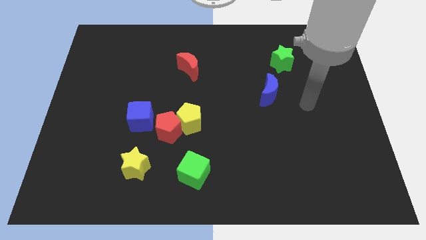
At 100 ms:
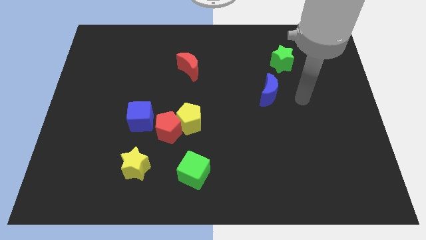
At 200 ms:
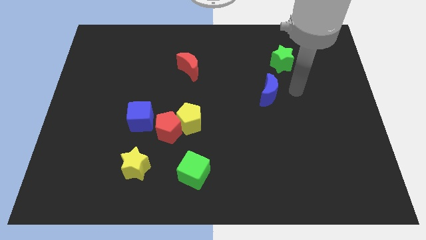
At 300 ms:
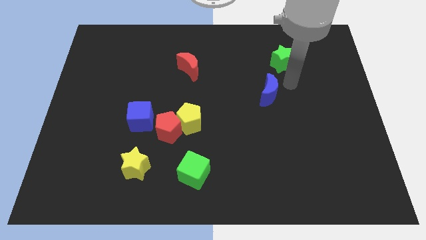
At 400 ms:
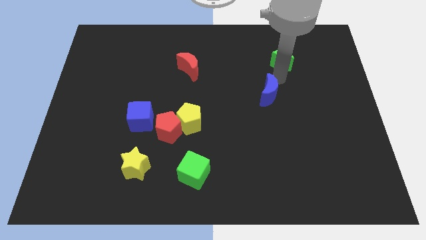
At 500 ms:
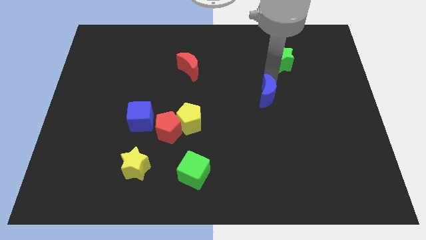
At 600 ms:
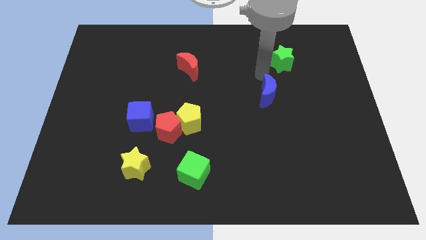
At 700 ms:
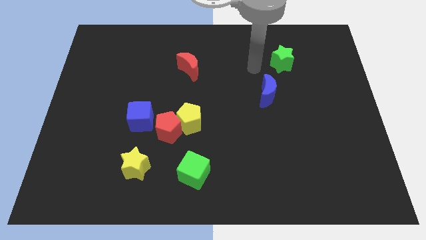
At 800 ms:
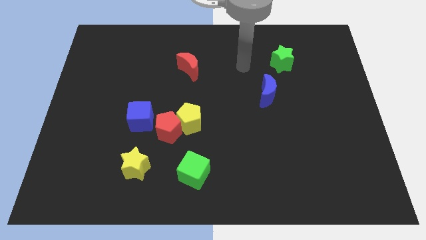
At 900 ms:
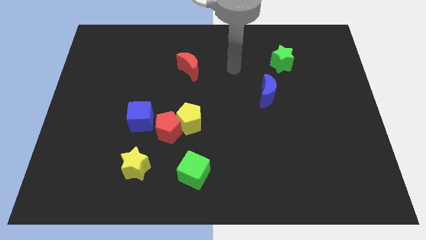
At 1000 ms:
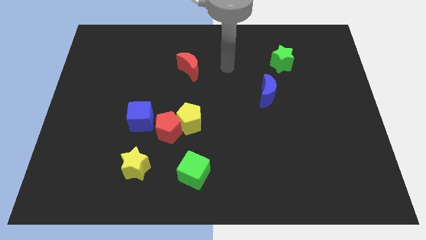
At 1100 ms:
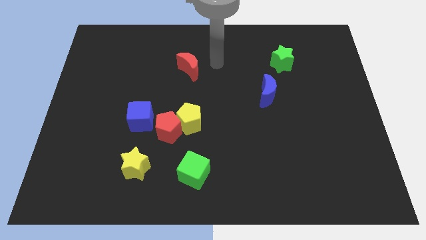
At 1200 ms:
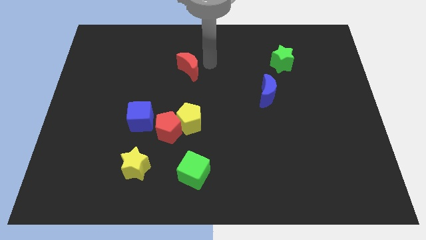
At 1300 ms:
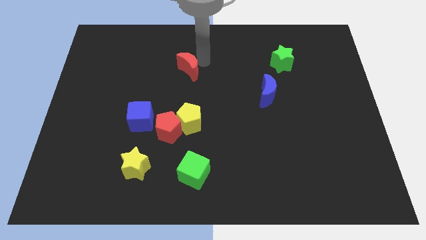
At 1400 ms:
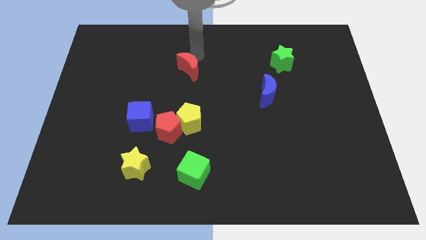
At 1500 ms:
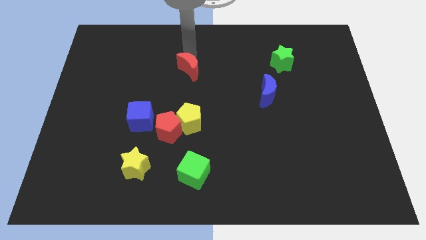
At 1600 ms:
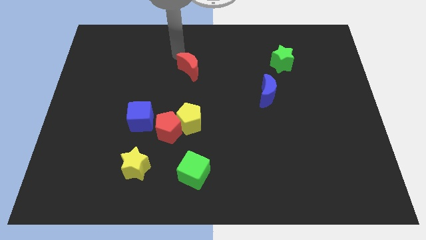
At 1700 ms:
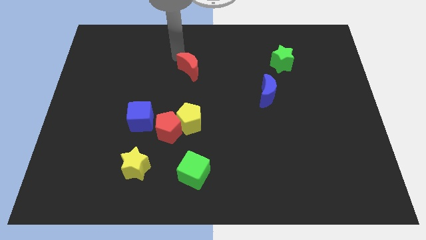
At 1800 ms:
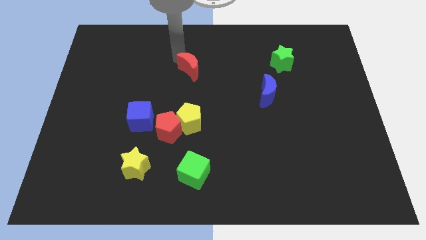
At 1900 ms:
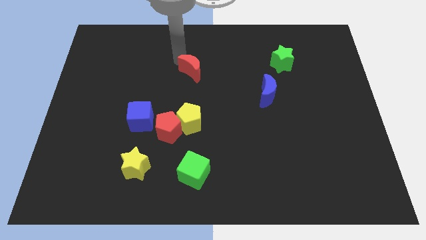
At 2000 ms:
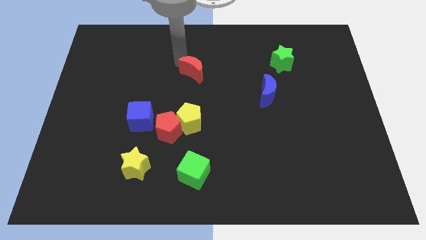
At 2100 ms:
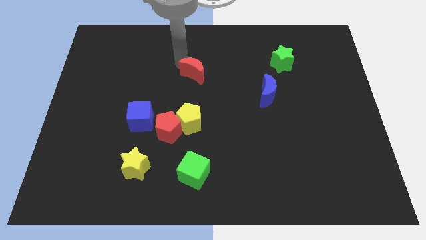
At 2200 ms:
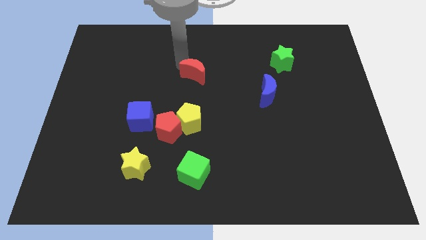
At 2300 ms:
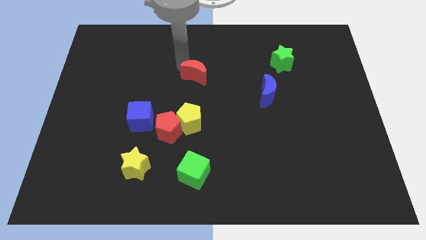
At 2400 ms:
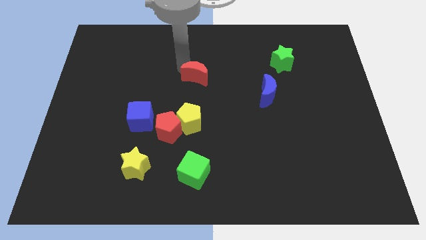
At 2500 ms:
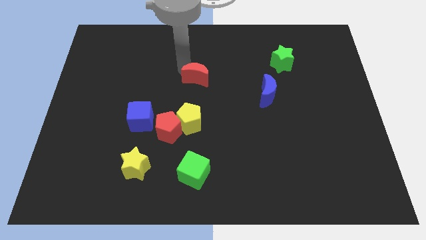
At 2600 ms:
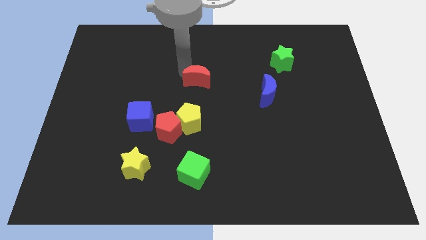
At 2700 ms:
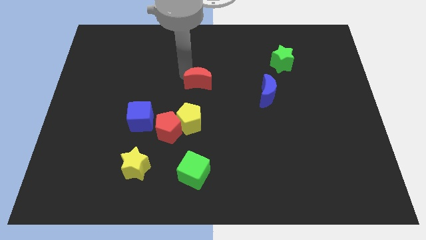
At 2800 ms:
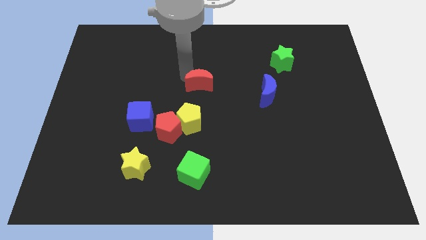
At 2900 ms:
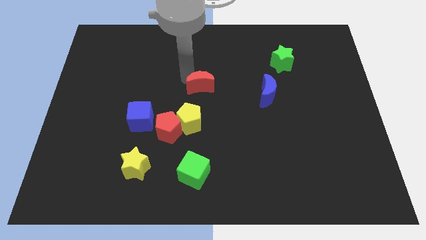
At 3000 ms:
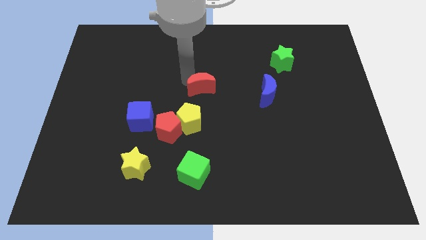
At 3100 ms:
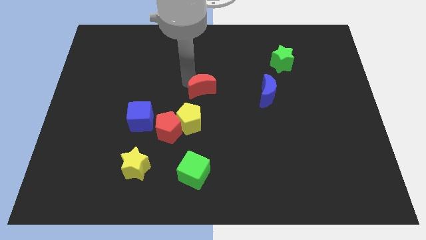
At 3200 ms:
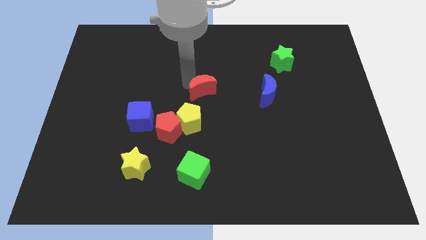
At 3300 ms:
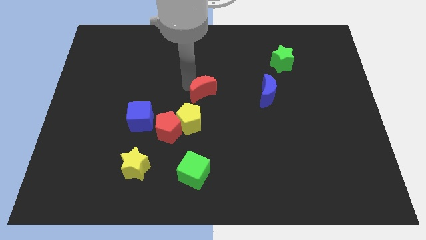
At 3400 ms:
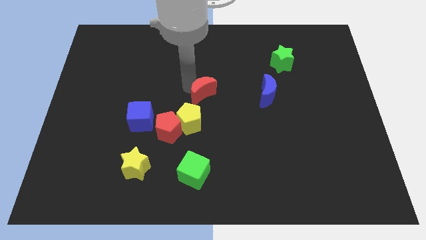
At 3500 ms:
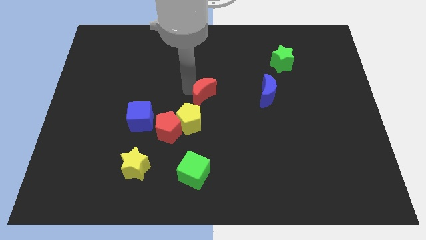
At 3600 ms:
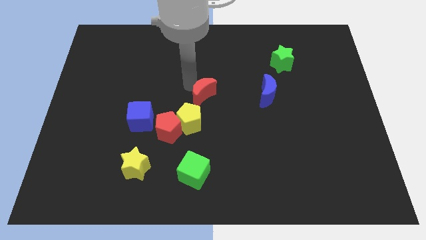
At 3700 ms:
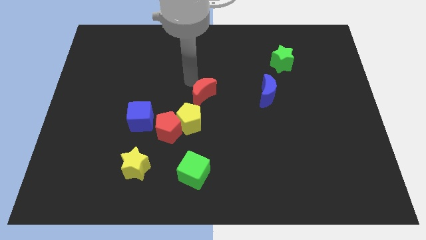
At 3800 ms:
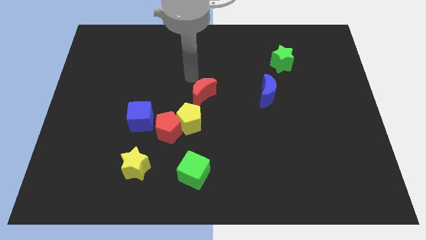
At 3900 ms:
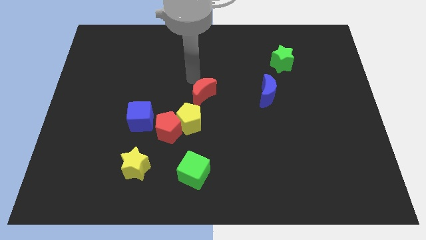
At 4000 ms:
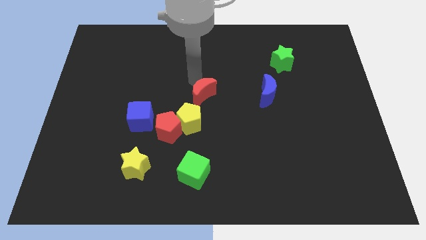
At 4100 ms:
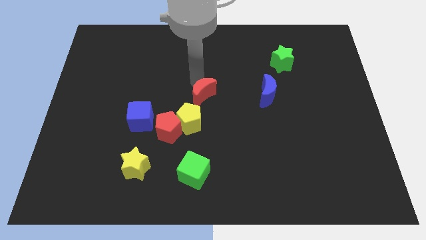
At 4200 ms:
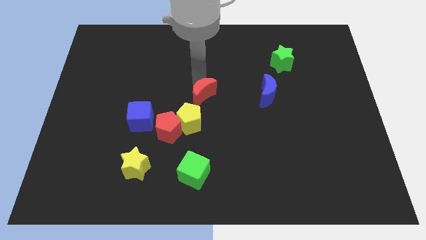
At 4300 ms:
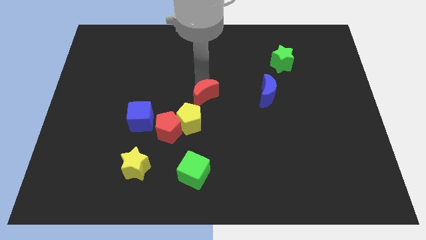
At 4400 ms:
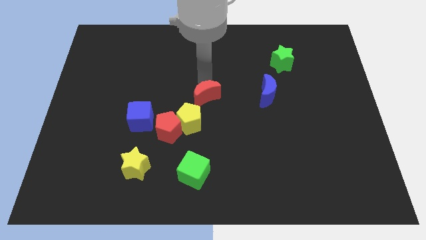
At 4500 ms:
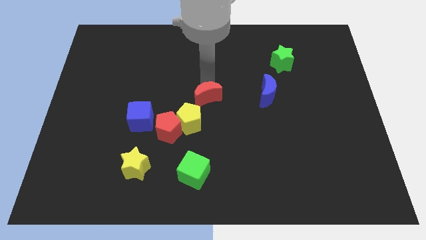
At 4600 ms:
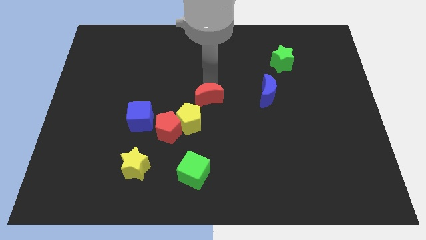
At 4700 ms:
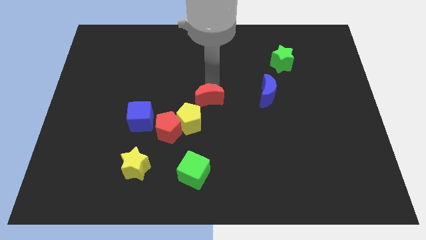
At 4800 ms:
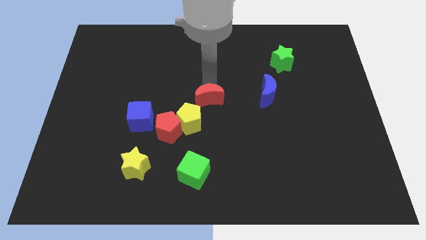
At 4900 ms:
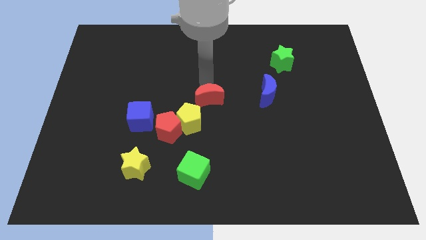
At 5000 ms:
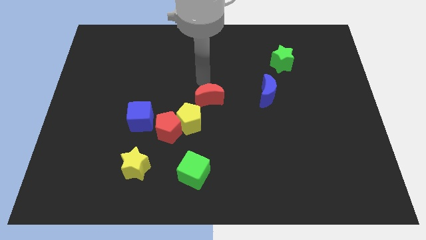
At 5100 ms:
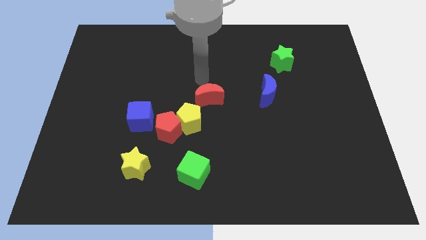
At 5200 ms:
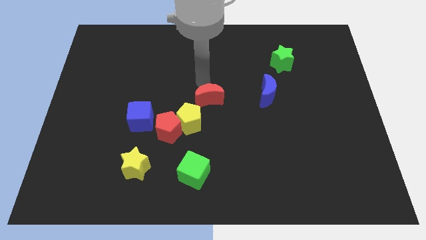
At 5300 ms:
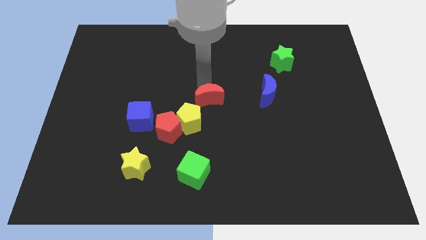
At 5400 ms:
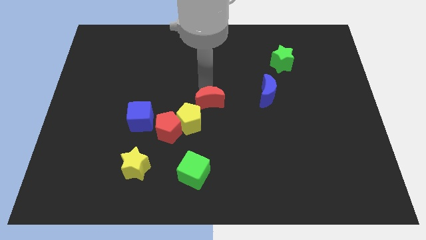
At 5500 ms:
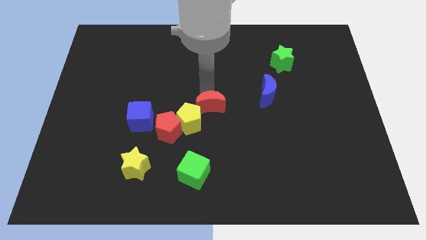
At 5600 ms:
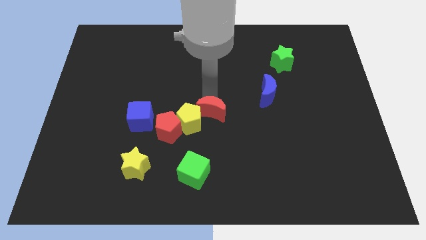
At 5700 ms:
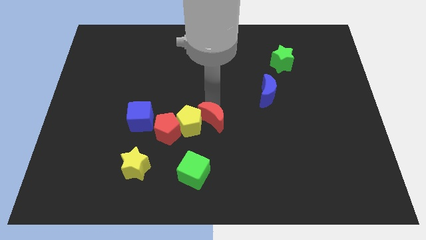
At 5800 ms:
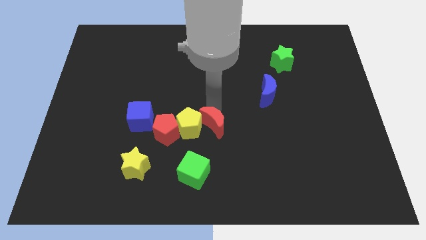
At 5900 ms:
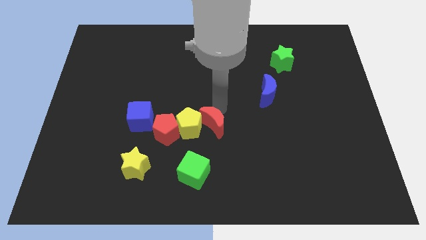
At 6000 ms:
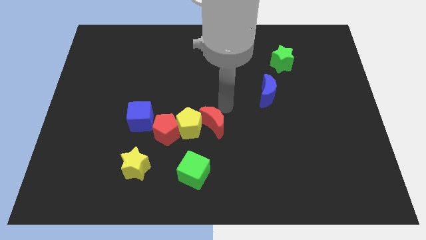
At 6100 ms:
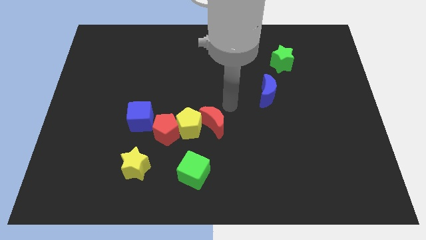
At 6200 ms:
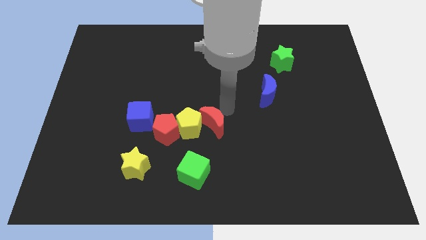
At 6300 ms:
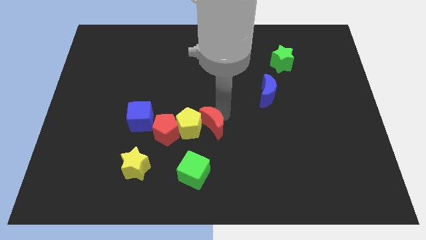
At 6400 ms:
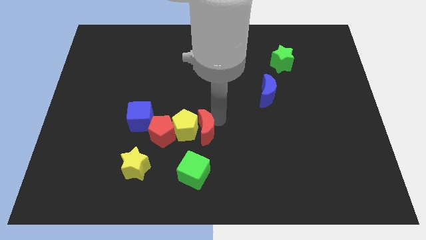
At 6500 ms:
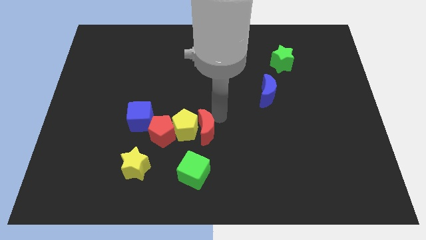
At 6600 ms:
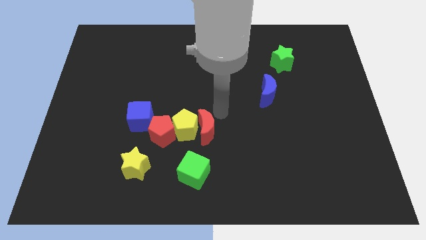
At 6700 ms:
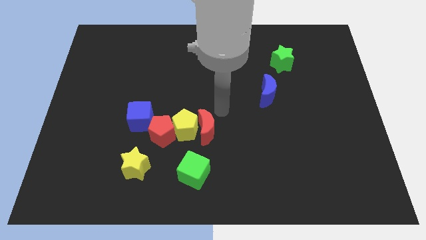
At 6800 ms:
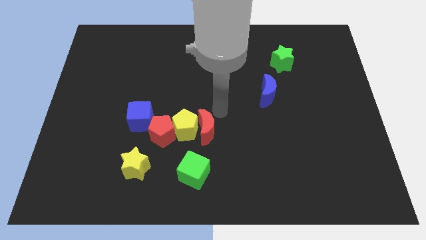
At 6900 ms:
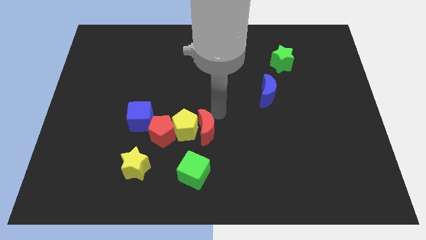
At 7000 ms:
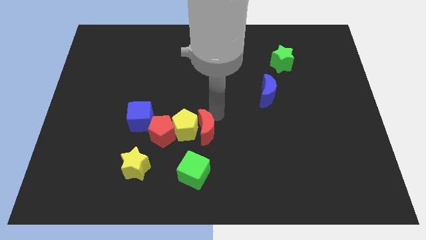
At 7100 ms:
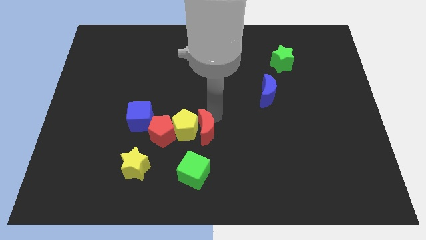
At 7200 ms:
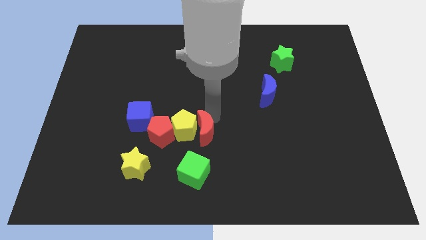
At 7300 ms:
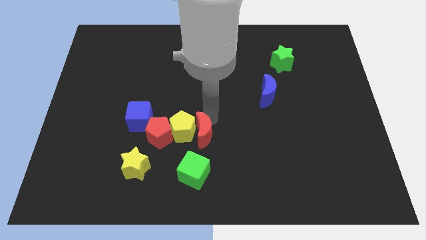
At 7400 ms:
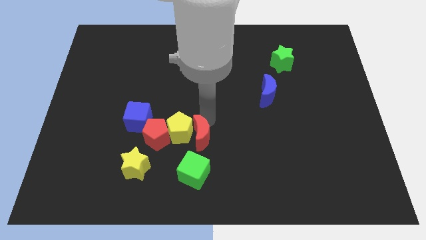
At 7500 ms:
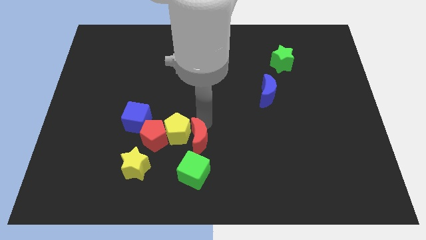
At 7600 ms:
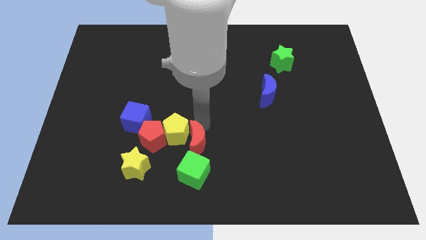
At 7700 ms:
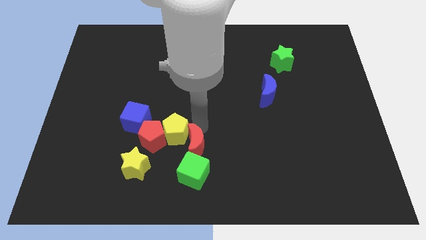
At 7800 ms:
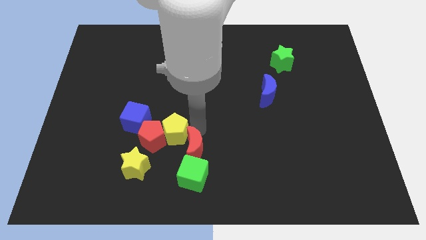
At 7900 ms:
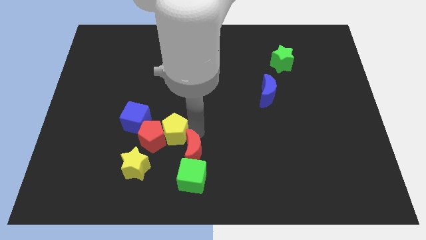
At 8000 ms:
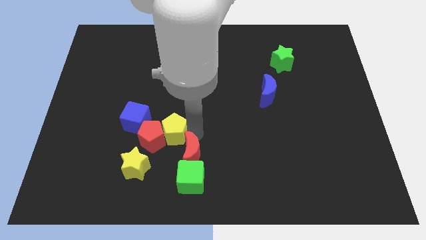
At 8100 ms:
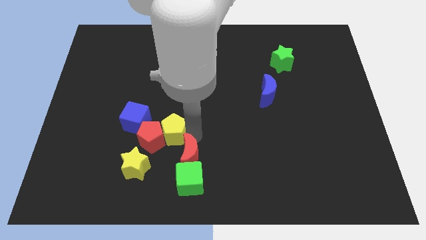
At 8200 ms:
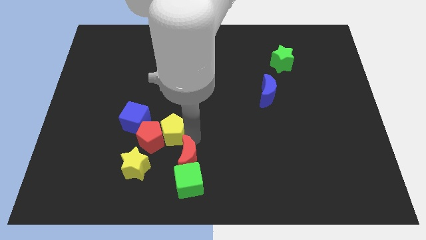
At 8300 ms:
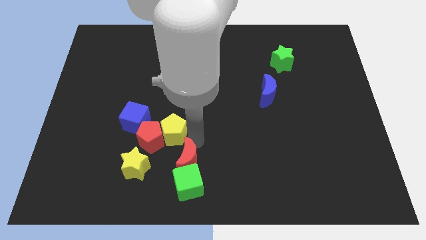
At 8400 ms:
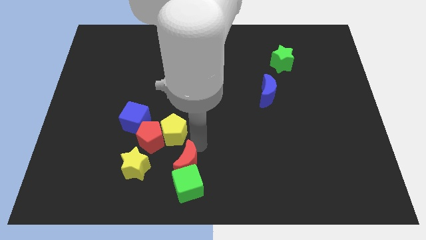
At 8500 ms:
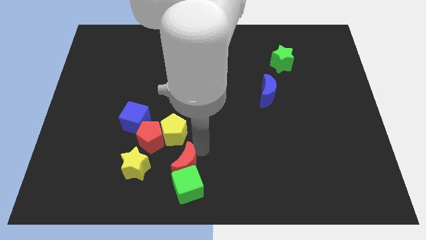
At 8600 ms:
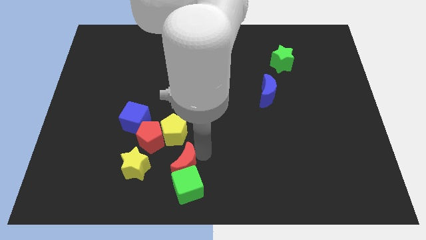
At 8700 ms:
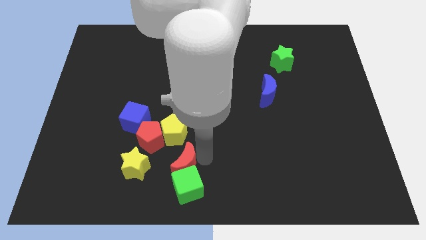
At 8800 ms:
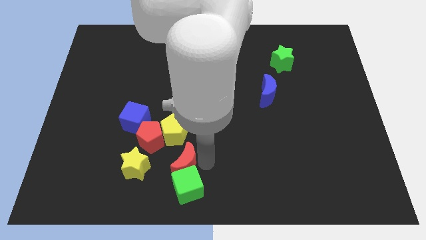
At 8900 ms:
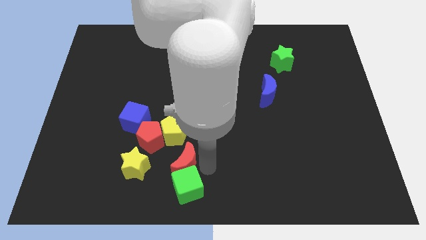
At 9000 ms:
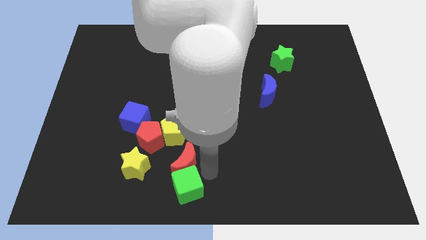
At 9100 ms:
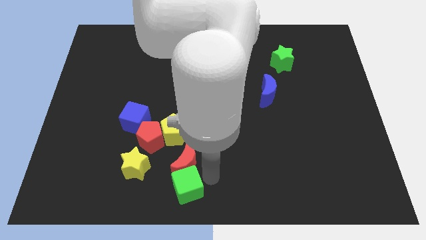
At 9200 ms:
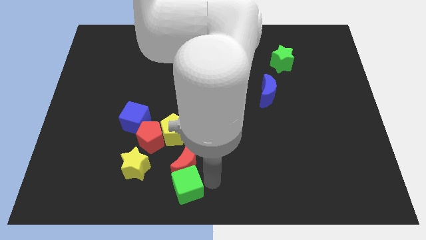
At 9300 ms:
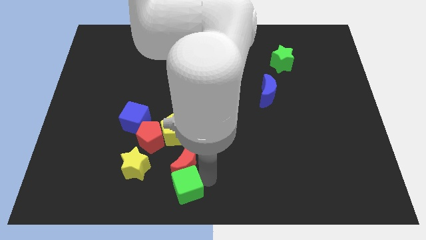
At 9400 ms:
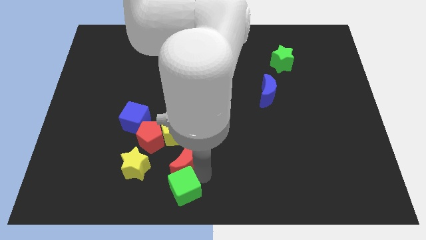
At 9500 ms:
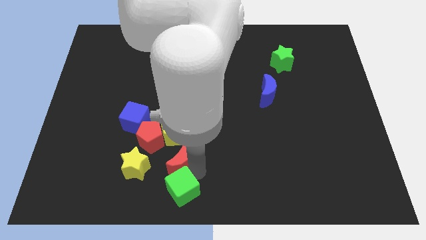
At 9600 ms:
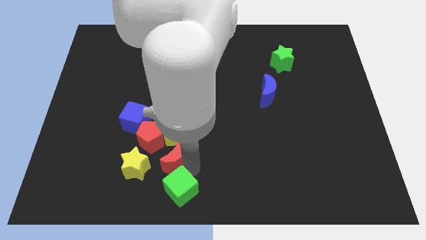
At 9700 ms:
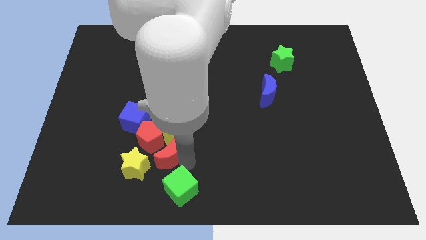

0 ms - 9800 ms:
put the red moon to the bottom of the red pentagon
